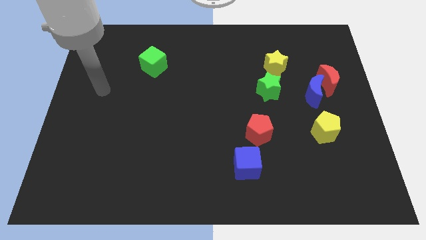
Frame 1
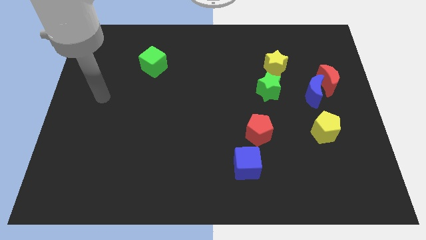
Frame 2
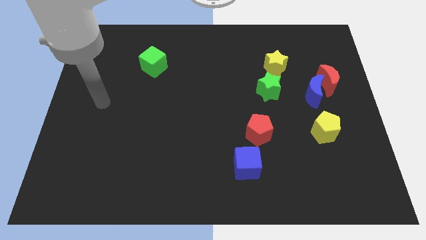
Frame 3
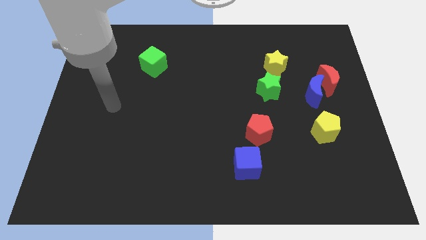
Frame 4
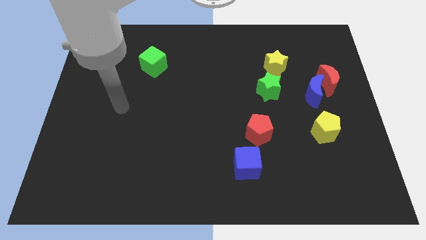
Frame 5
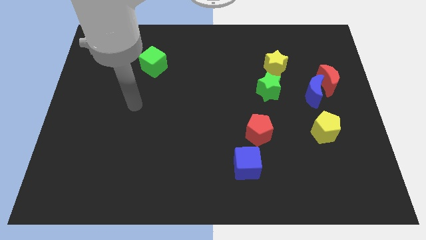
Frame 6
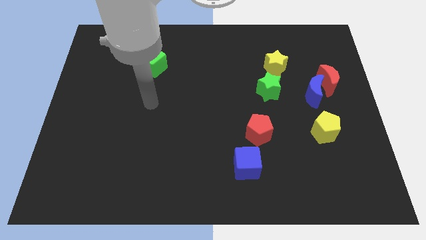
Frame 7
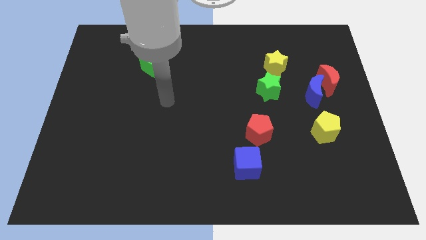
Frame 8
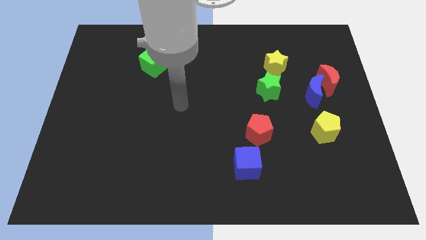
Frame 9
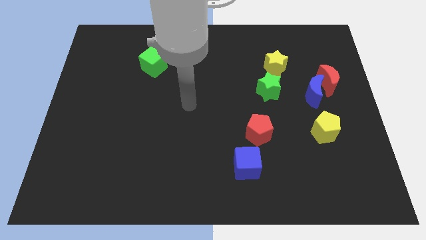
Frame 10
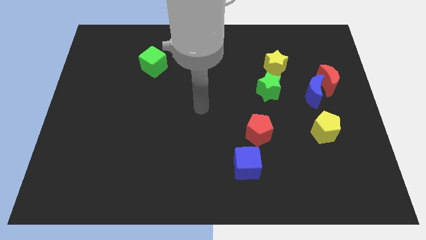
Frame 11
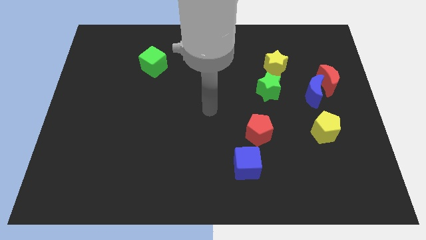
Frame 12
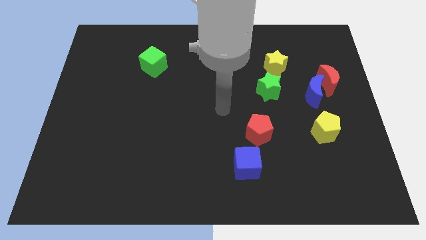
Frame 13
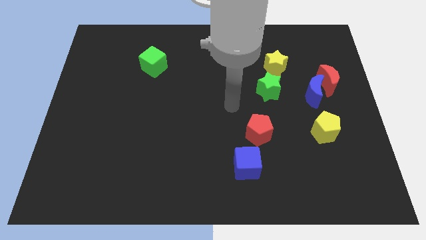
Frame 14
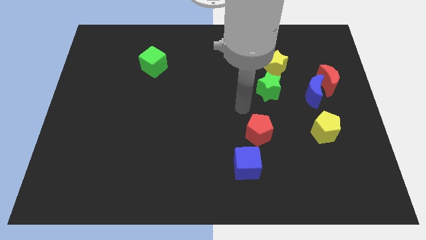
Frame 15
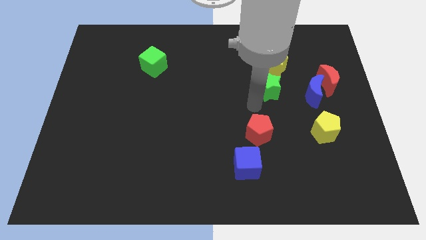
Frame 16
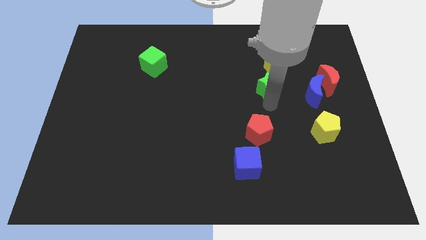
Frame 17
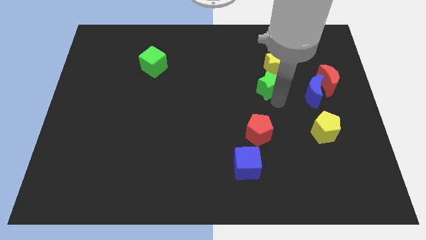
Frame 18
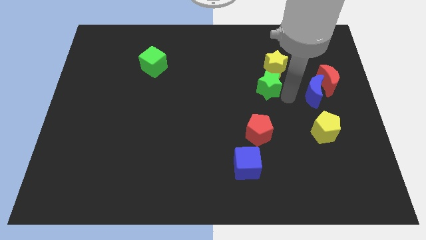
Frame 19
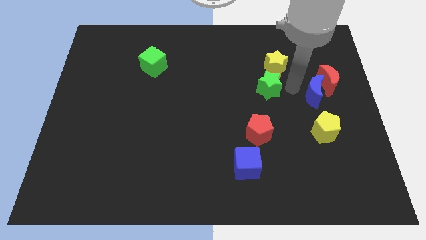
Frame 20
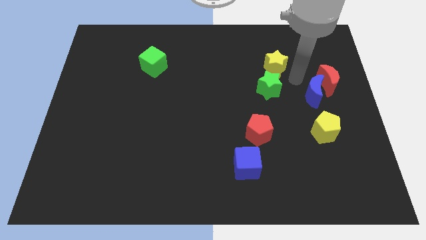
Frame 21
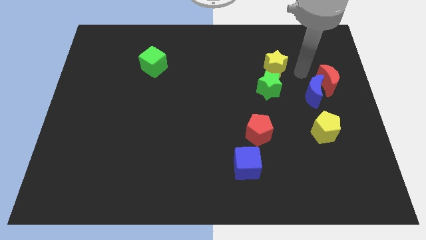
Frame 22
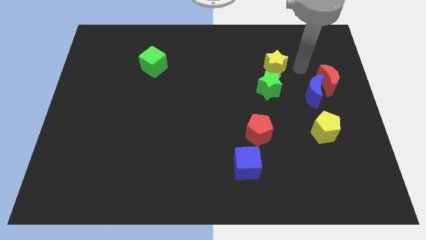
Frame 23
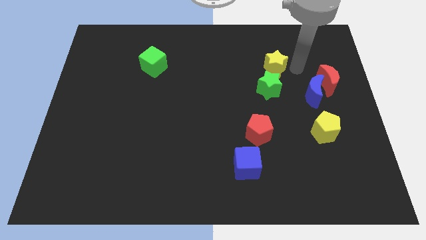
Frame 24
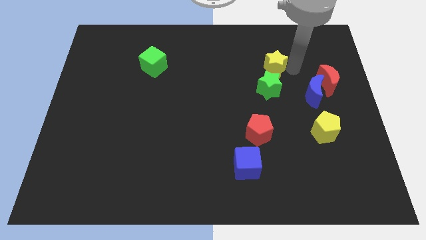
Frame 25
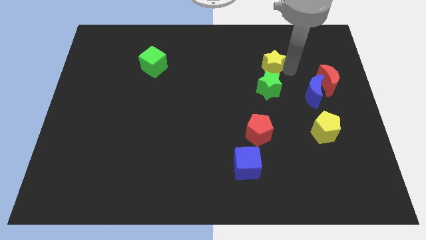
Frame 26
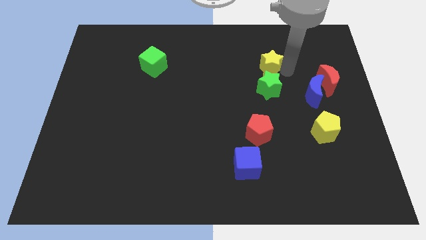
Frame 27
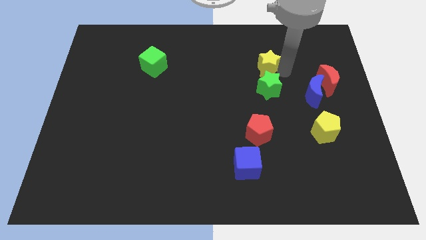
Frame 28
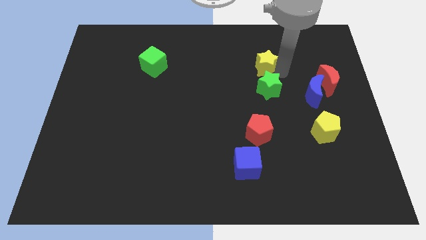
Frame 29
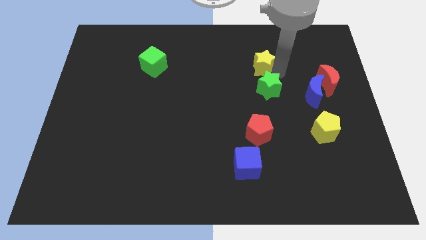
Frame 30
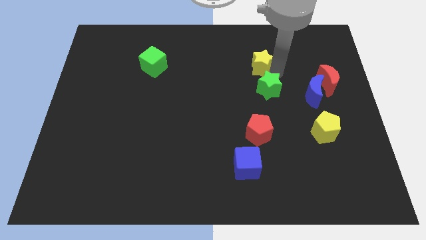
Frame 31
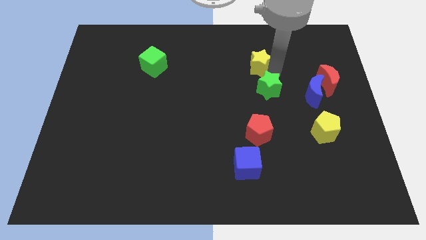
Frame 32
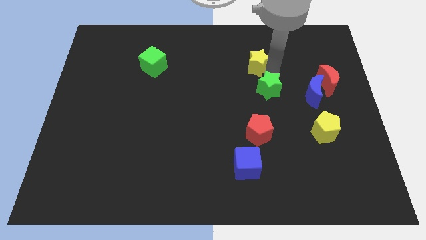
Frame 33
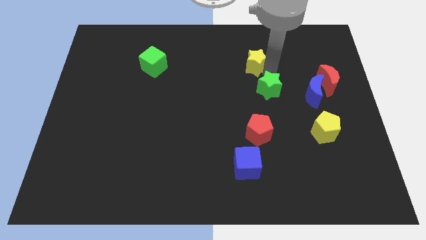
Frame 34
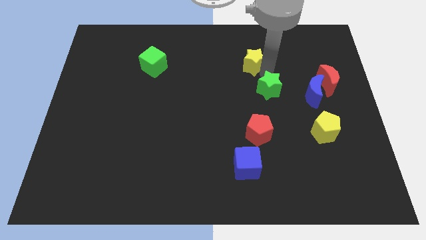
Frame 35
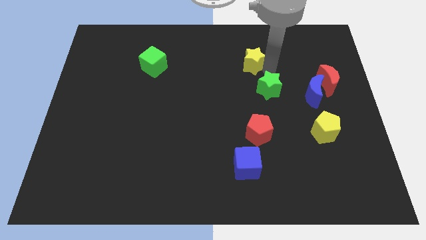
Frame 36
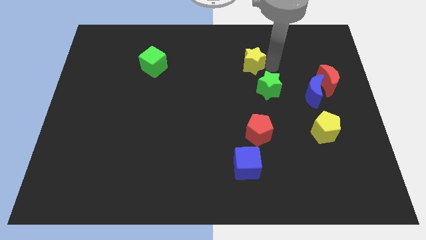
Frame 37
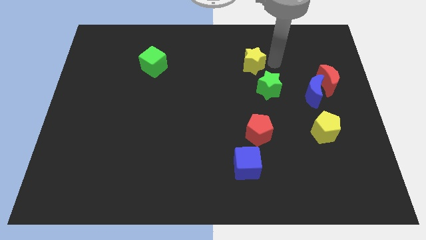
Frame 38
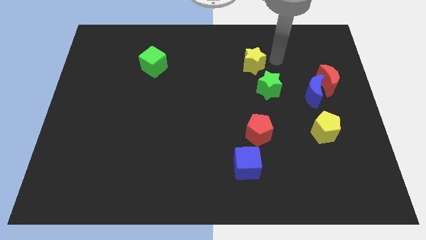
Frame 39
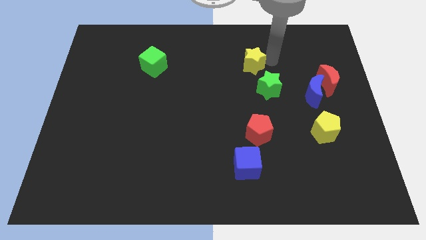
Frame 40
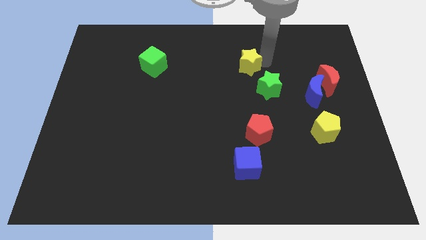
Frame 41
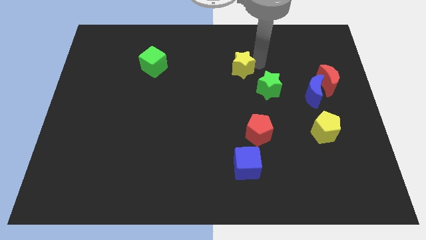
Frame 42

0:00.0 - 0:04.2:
slide the yellow star to the left a little bit

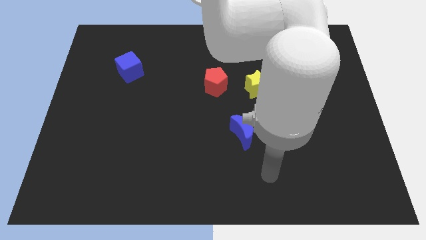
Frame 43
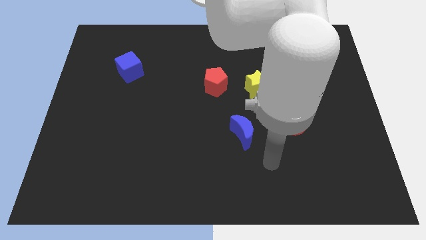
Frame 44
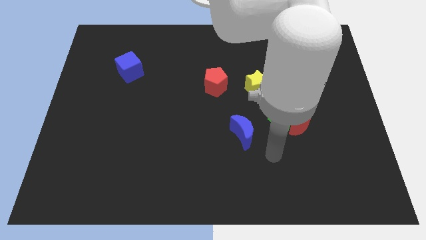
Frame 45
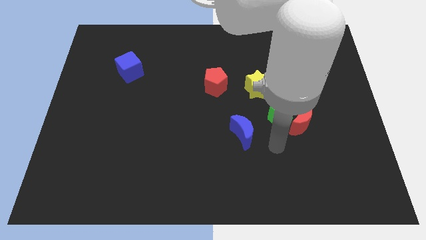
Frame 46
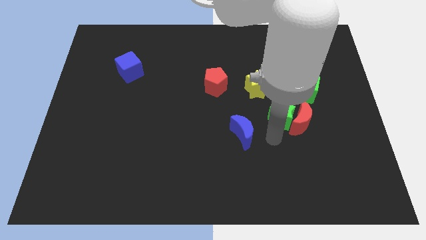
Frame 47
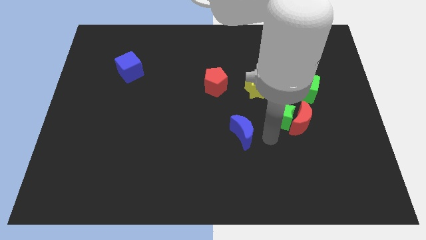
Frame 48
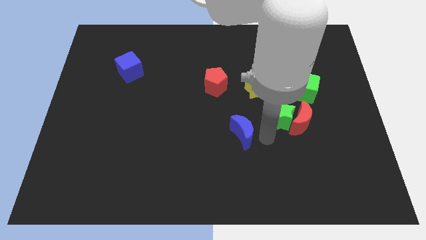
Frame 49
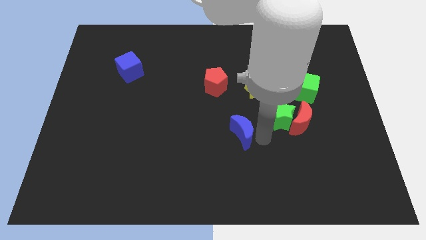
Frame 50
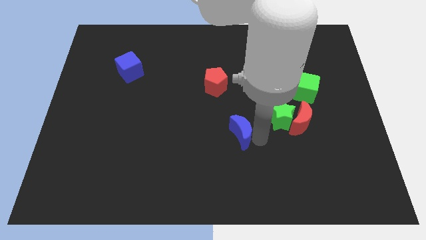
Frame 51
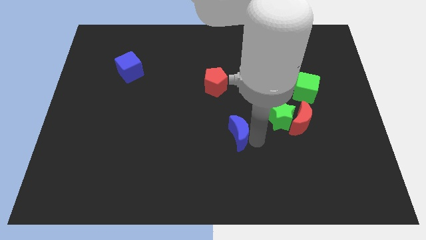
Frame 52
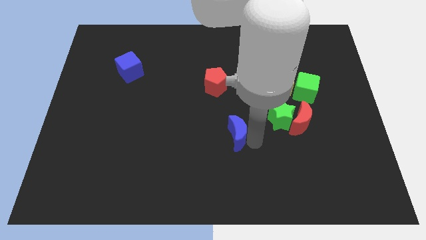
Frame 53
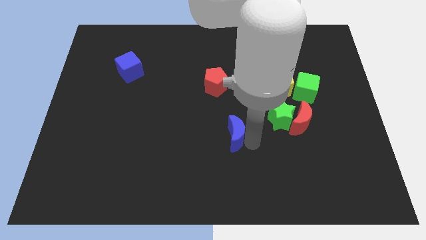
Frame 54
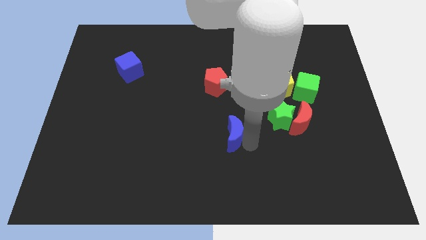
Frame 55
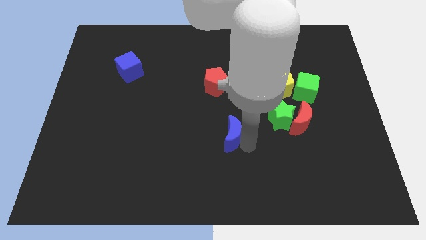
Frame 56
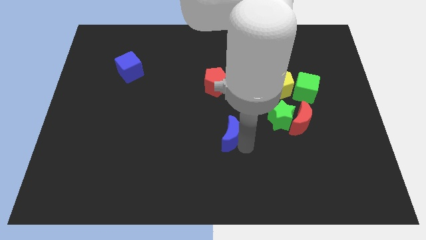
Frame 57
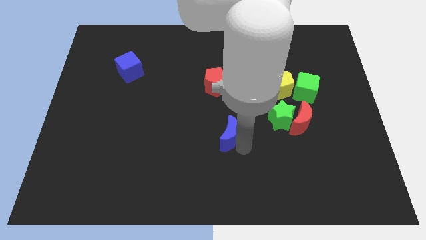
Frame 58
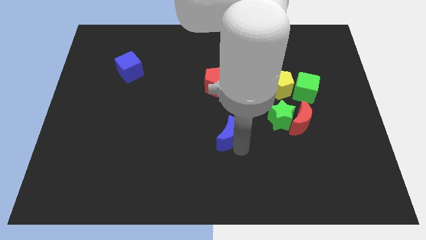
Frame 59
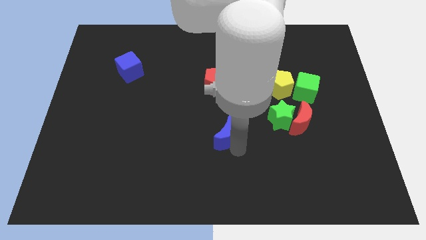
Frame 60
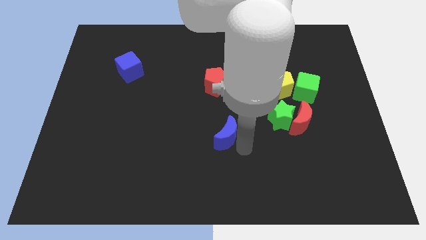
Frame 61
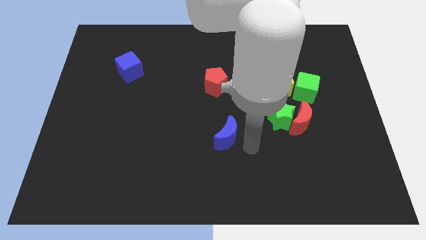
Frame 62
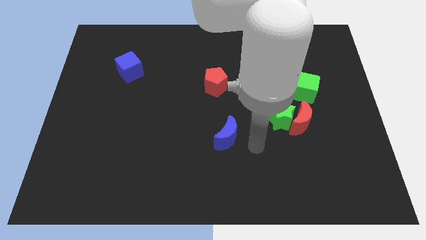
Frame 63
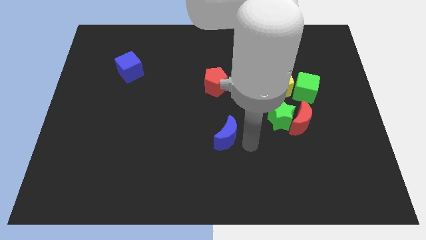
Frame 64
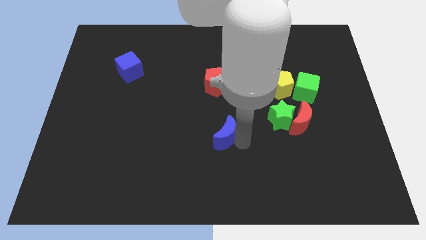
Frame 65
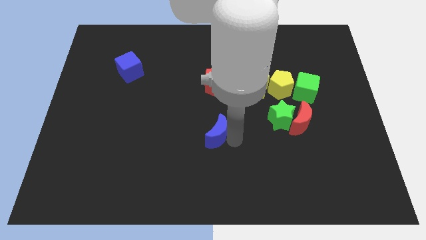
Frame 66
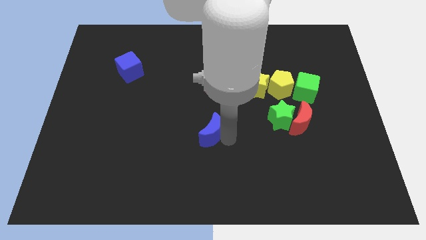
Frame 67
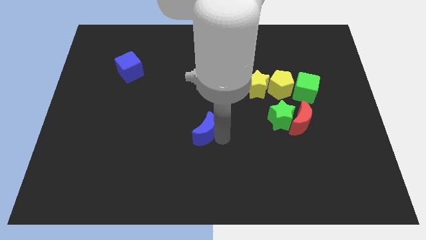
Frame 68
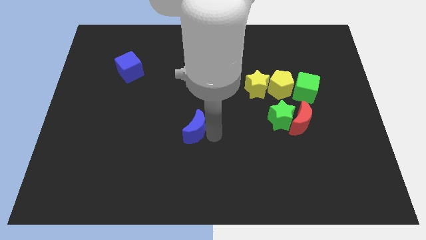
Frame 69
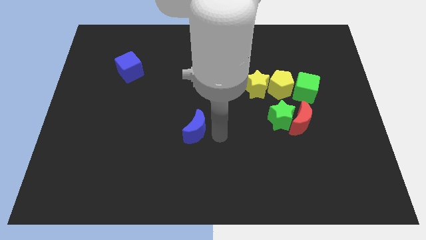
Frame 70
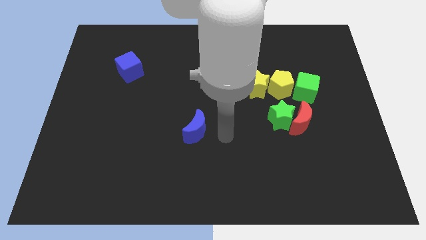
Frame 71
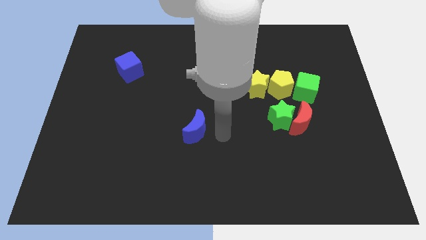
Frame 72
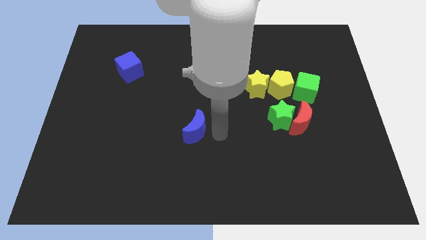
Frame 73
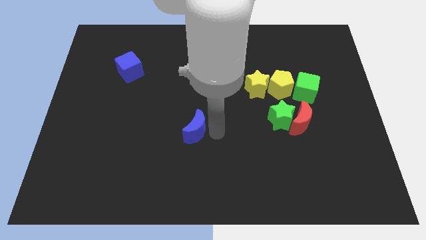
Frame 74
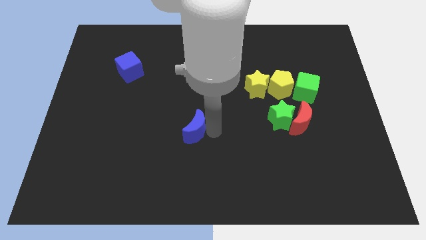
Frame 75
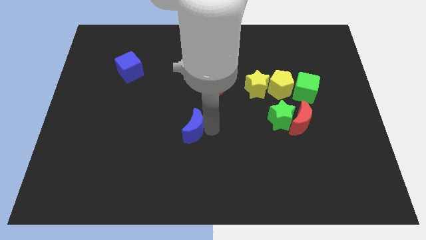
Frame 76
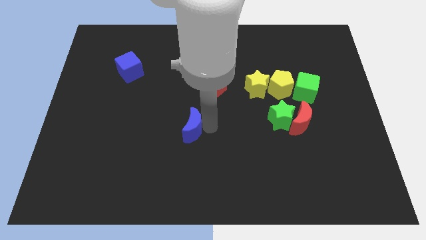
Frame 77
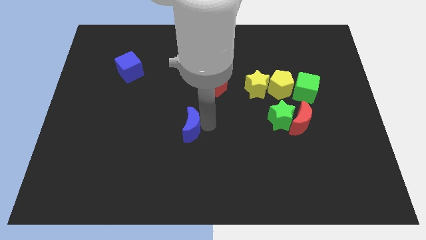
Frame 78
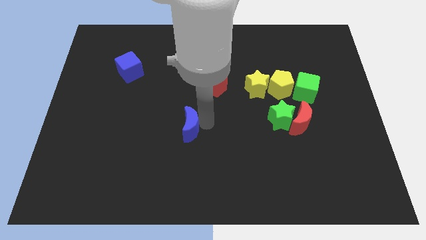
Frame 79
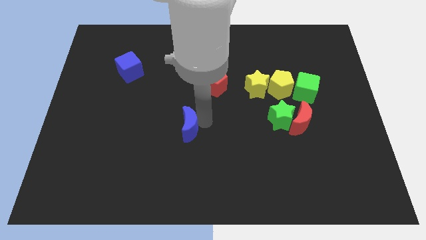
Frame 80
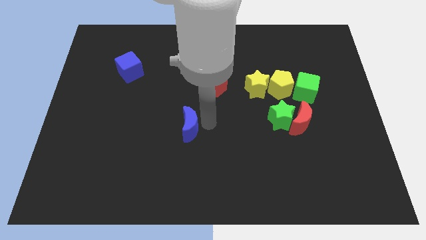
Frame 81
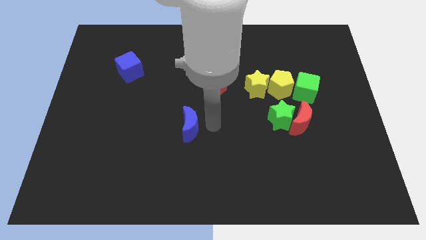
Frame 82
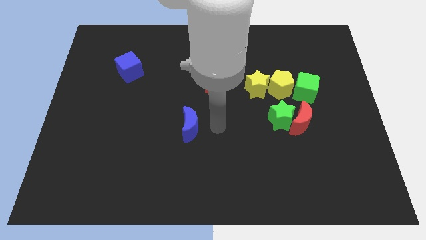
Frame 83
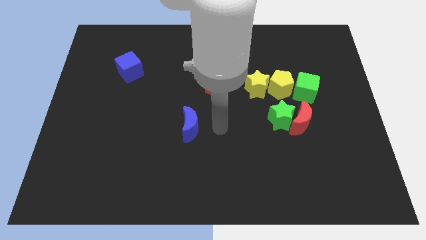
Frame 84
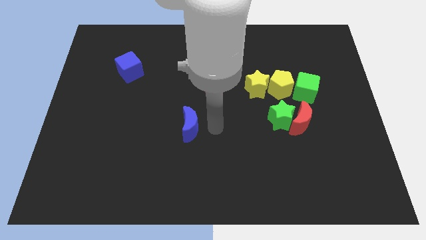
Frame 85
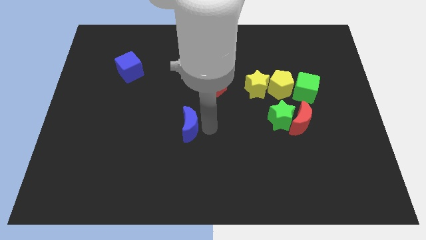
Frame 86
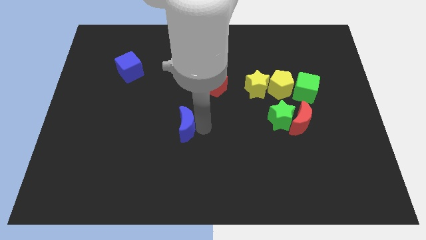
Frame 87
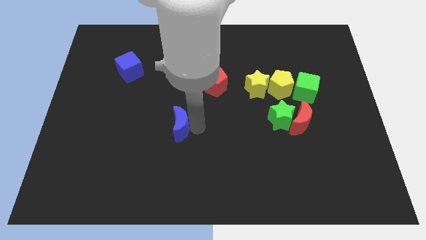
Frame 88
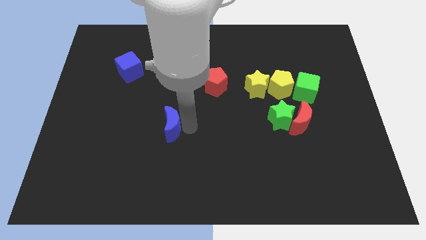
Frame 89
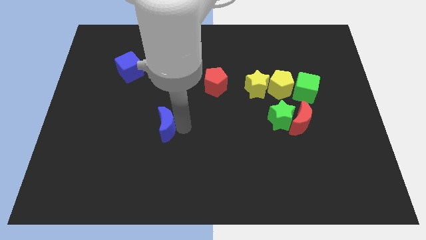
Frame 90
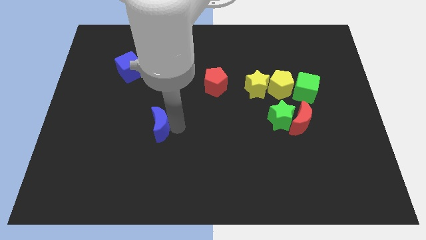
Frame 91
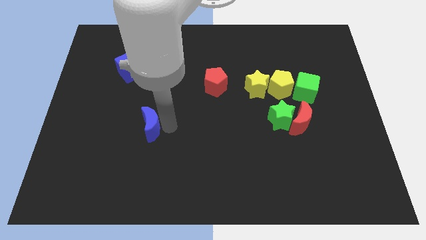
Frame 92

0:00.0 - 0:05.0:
move the blue moon left
